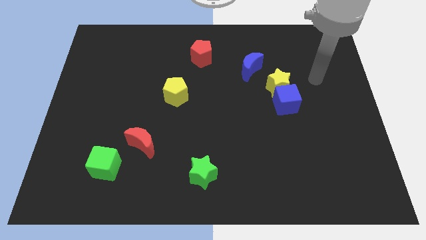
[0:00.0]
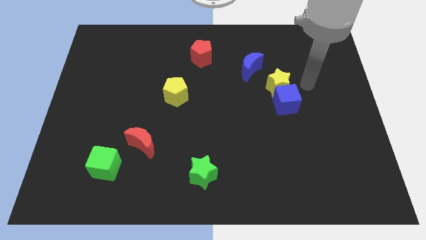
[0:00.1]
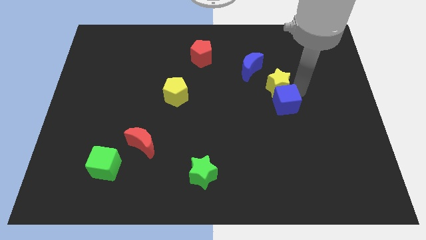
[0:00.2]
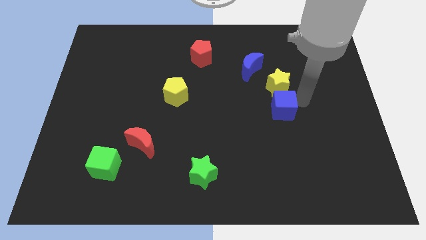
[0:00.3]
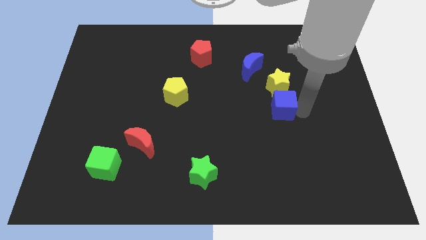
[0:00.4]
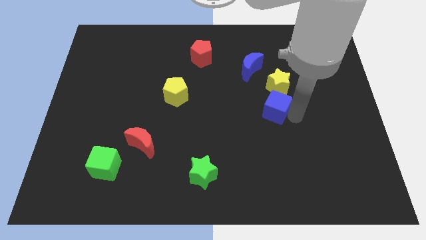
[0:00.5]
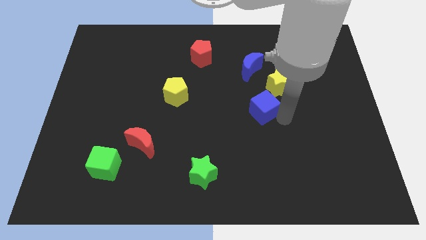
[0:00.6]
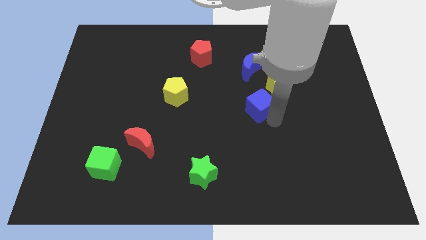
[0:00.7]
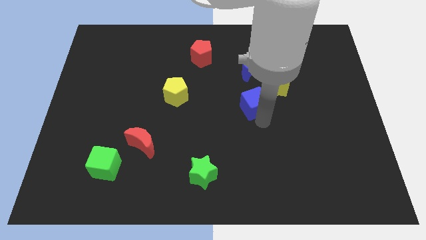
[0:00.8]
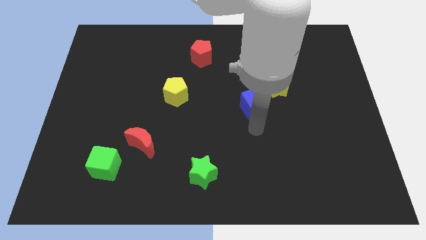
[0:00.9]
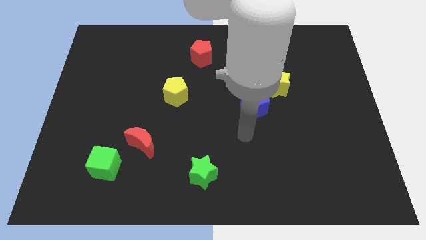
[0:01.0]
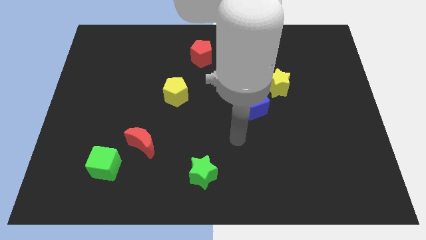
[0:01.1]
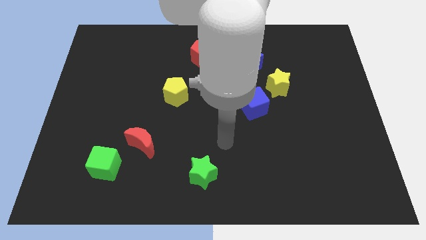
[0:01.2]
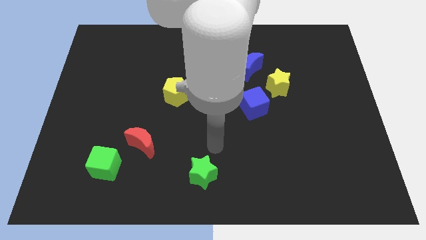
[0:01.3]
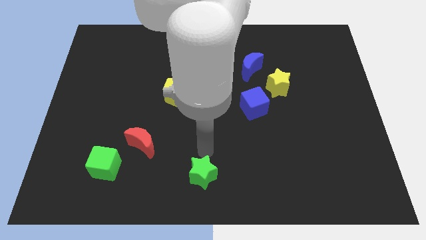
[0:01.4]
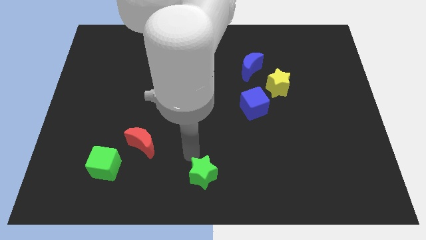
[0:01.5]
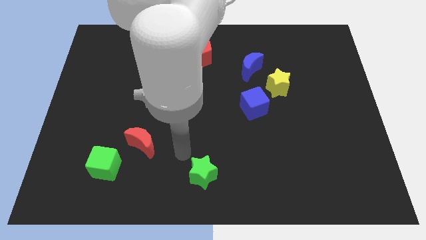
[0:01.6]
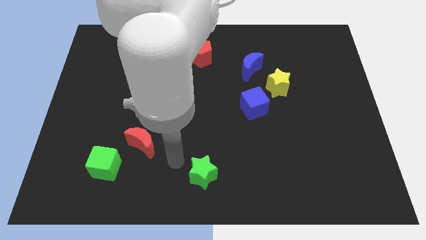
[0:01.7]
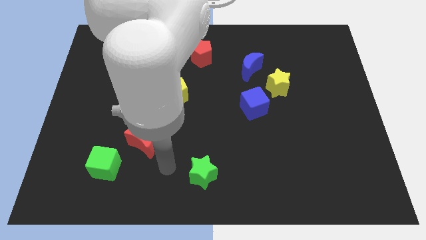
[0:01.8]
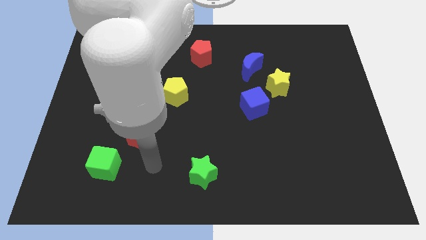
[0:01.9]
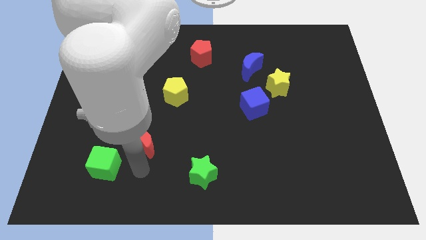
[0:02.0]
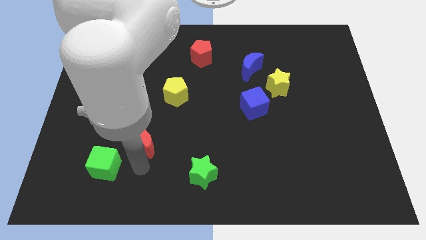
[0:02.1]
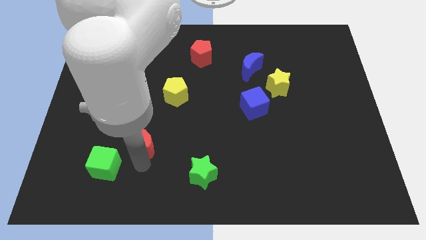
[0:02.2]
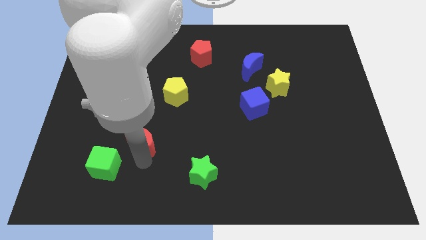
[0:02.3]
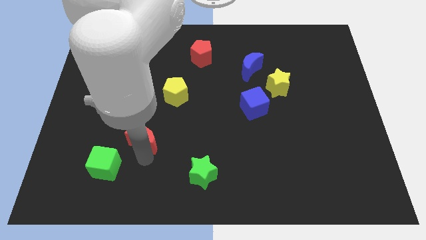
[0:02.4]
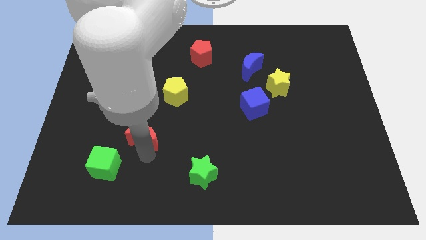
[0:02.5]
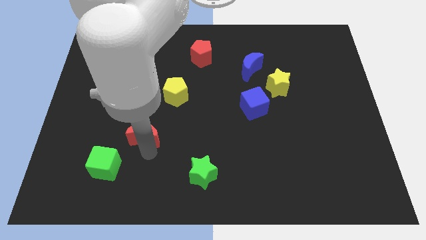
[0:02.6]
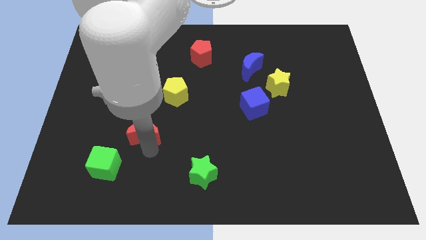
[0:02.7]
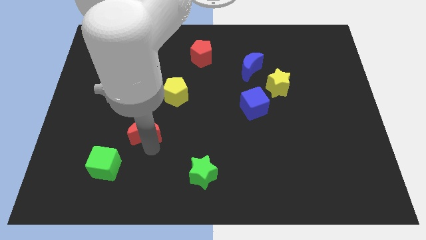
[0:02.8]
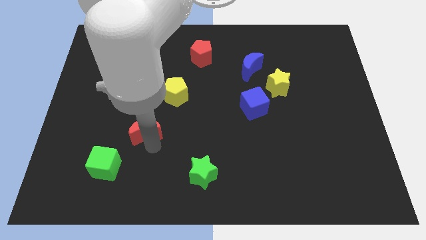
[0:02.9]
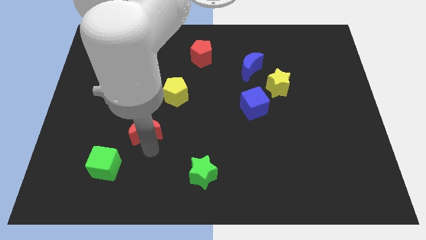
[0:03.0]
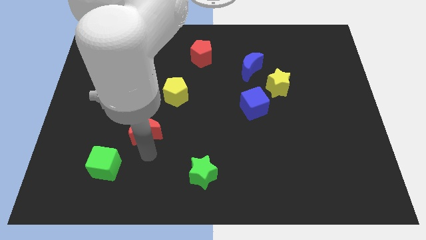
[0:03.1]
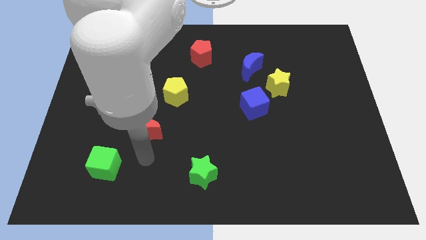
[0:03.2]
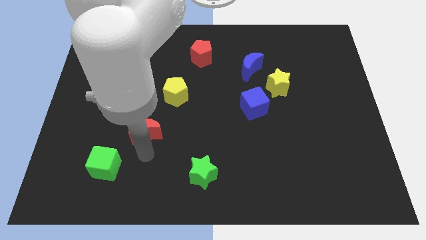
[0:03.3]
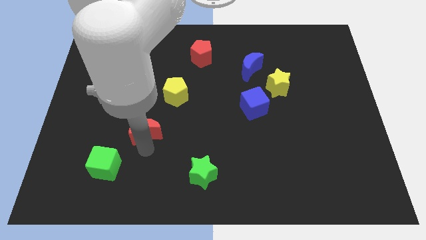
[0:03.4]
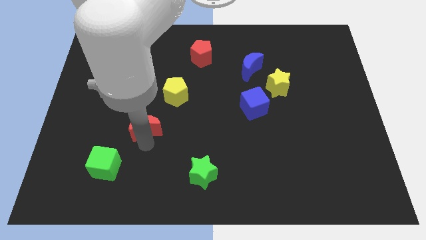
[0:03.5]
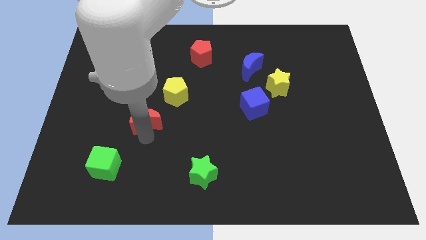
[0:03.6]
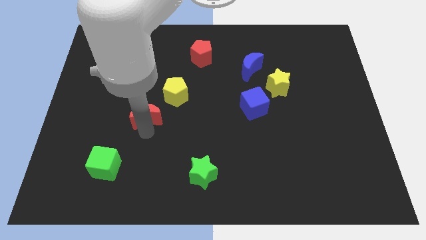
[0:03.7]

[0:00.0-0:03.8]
slightly move the red moon up

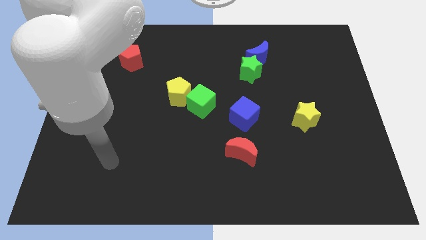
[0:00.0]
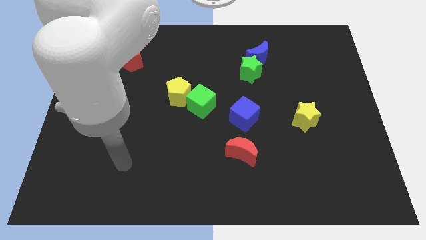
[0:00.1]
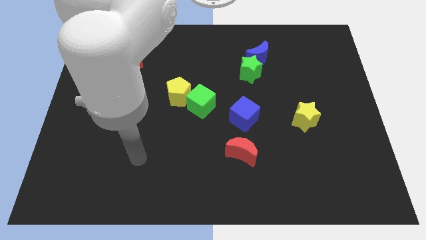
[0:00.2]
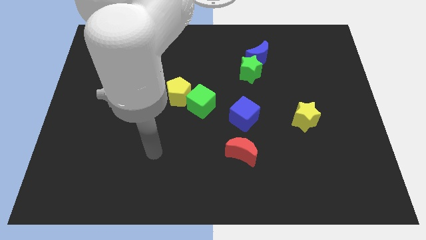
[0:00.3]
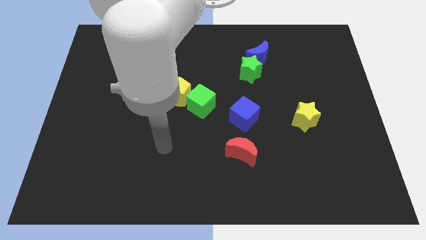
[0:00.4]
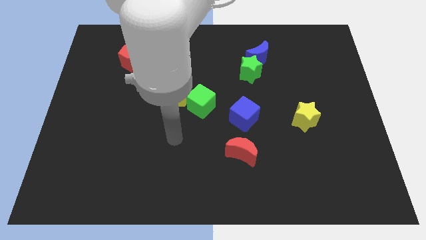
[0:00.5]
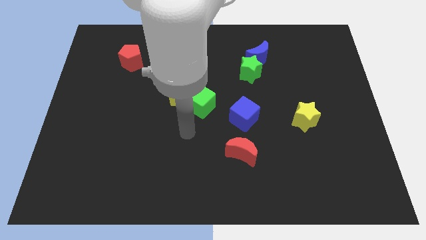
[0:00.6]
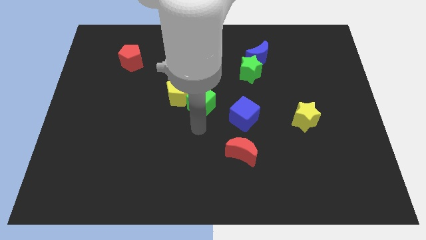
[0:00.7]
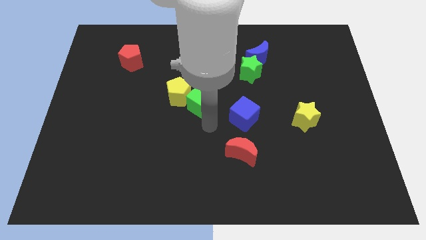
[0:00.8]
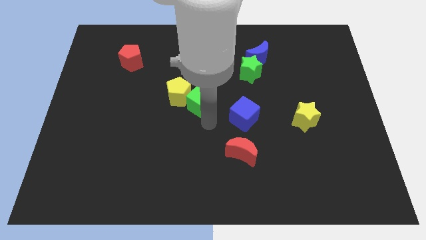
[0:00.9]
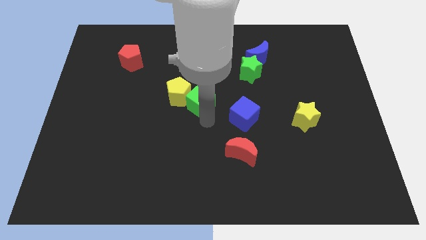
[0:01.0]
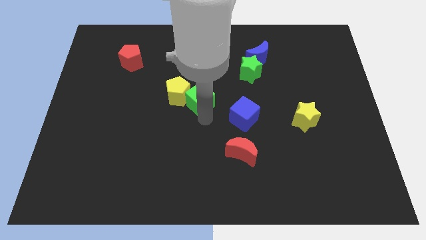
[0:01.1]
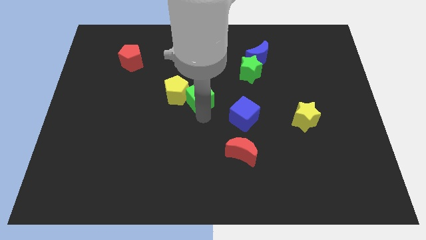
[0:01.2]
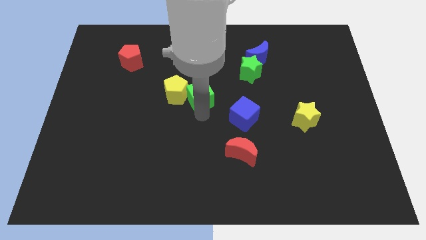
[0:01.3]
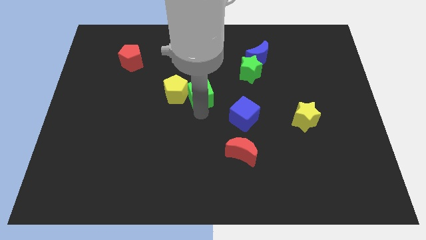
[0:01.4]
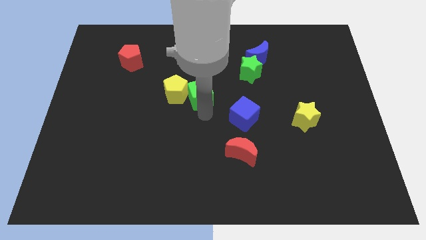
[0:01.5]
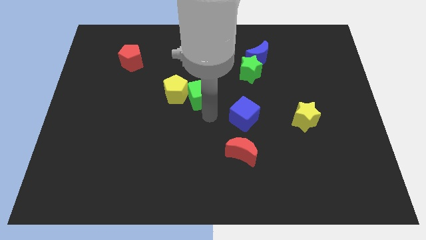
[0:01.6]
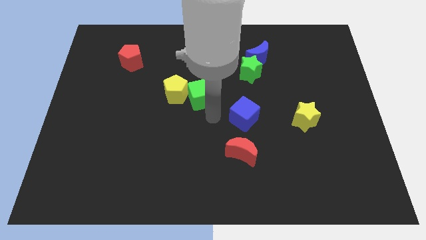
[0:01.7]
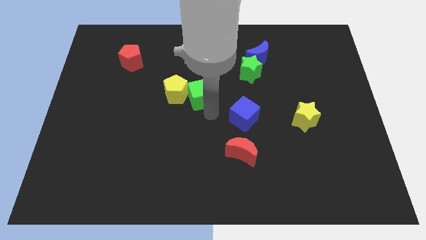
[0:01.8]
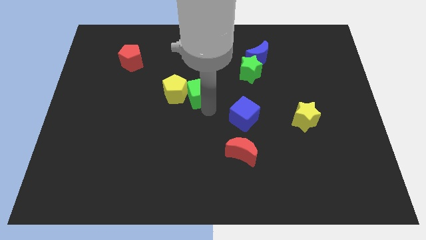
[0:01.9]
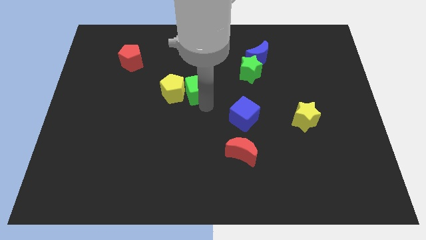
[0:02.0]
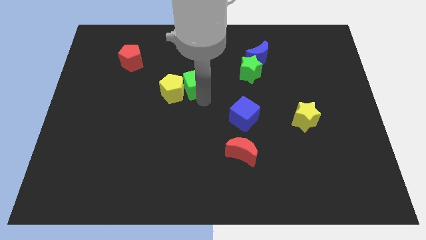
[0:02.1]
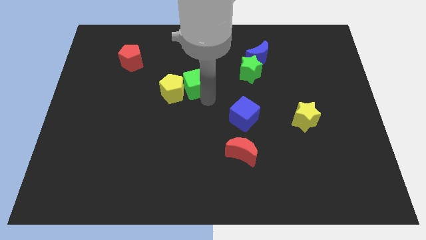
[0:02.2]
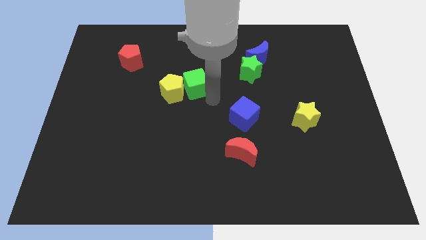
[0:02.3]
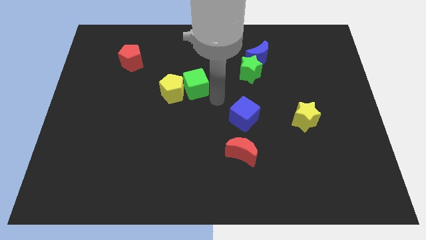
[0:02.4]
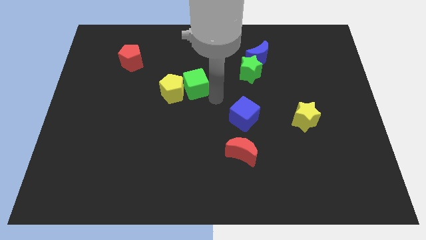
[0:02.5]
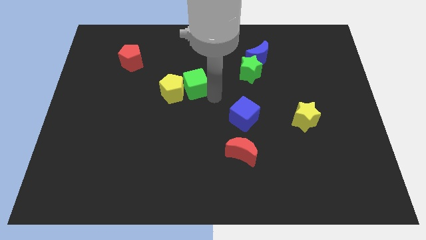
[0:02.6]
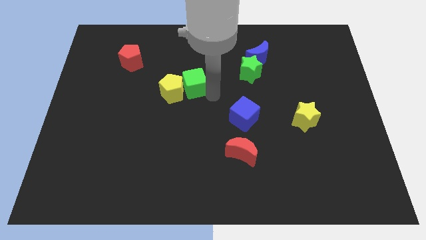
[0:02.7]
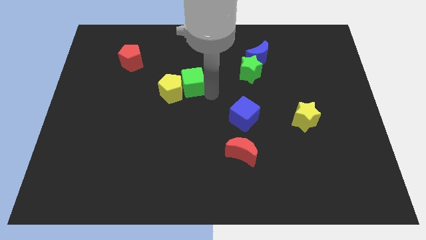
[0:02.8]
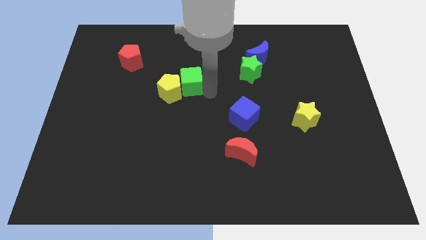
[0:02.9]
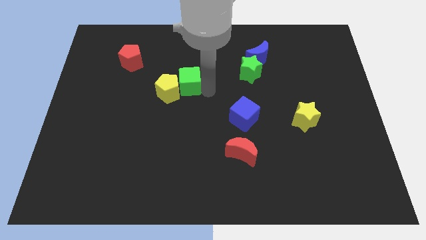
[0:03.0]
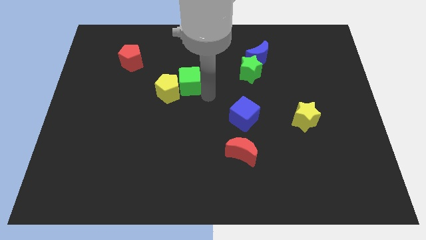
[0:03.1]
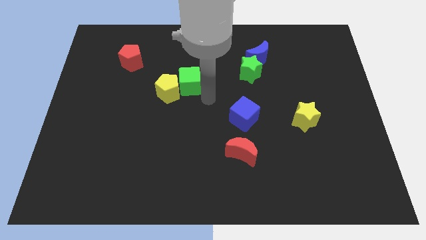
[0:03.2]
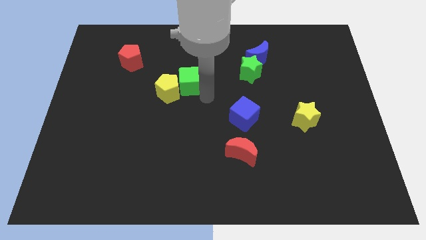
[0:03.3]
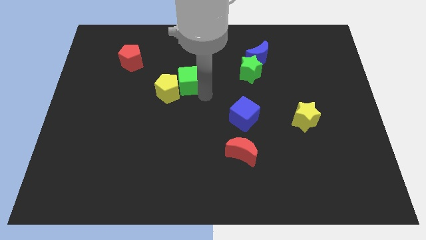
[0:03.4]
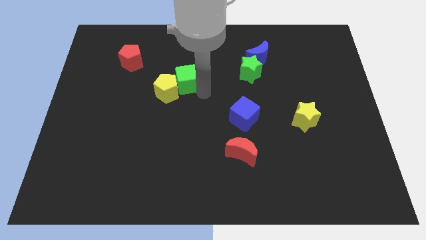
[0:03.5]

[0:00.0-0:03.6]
move the green cube upwards and to the left diagonally a bit

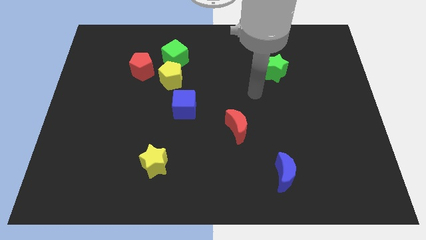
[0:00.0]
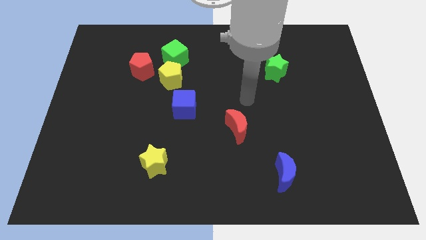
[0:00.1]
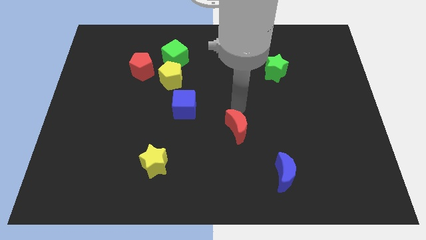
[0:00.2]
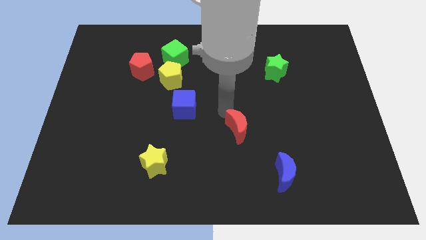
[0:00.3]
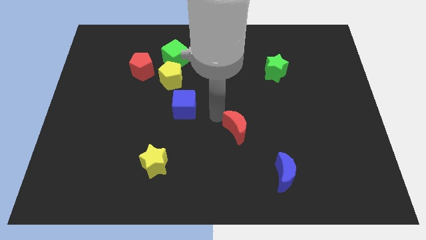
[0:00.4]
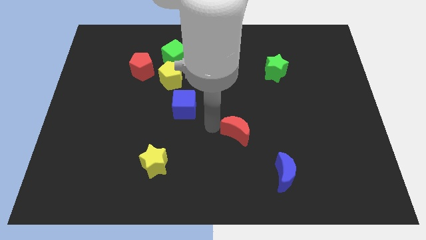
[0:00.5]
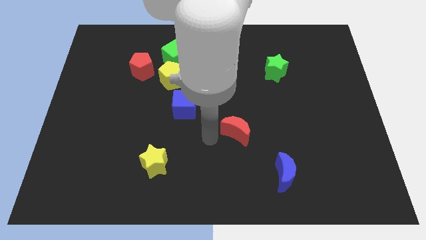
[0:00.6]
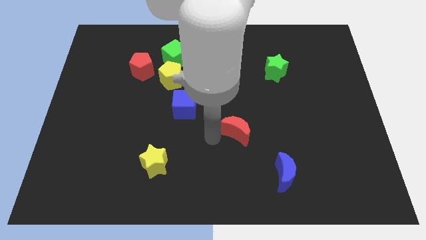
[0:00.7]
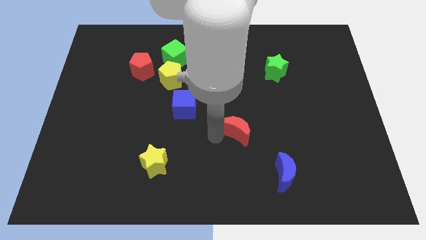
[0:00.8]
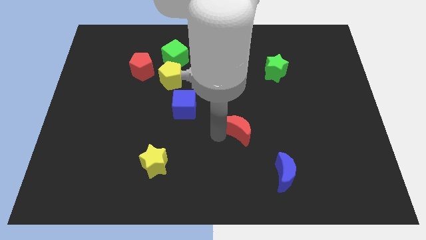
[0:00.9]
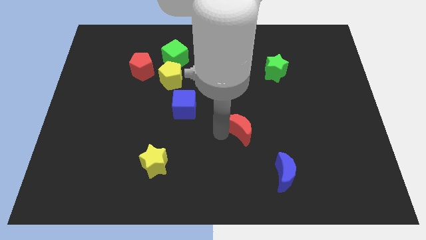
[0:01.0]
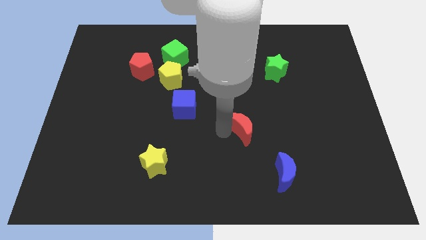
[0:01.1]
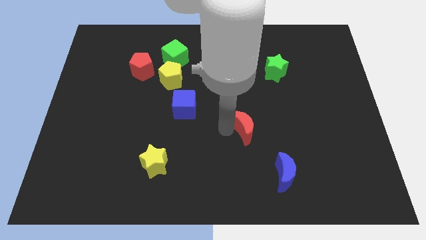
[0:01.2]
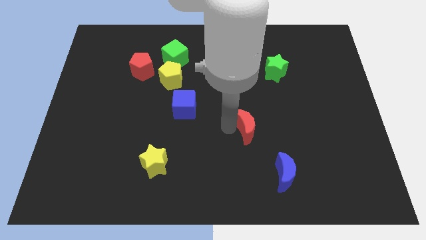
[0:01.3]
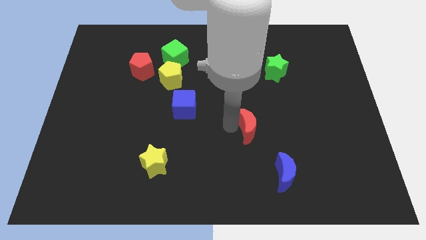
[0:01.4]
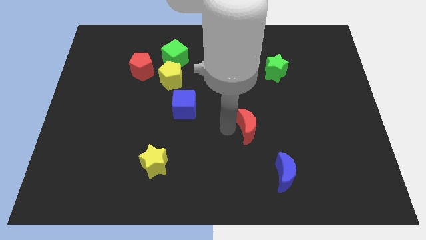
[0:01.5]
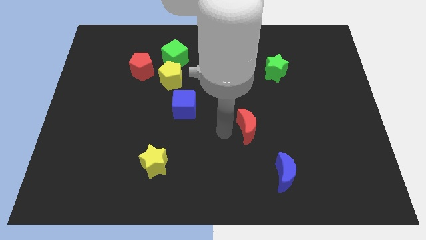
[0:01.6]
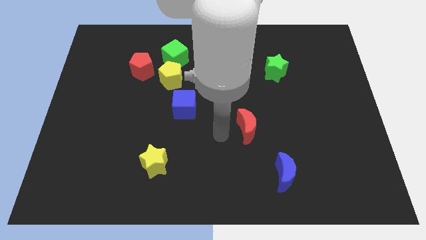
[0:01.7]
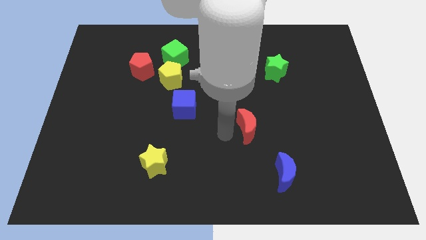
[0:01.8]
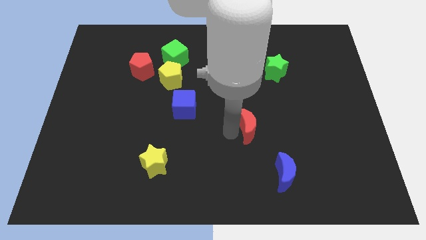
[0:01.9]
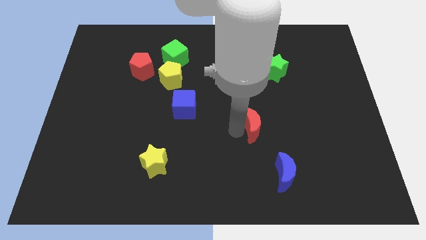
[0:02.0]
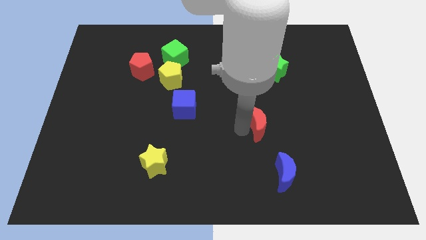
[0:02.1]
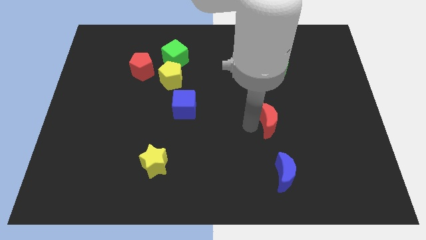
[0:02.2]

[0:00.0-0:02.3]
slightly push the red moon right
